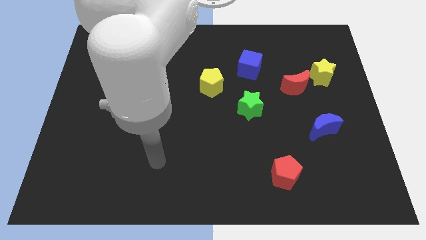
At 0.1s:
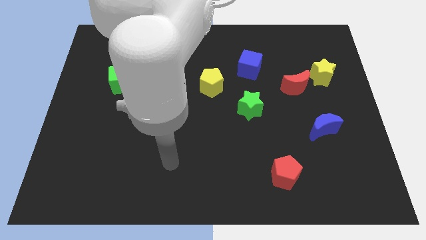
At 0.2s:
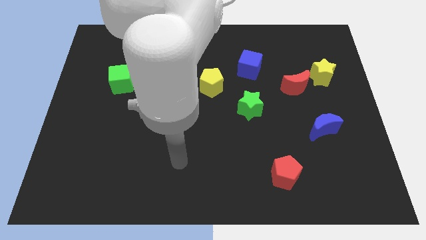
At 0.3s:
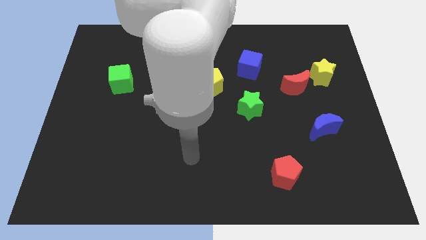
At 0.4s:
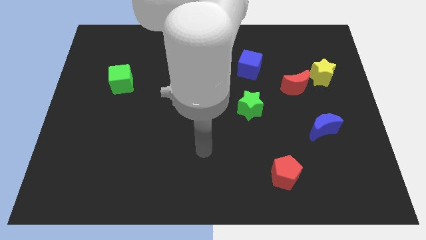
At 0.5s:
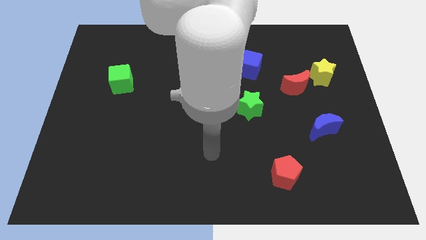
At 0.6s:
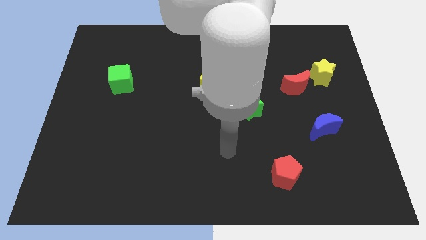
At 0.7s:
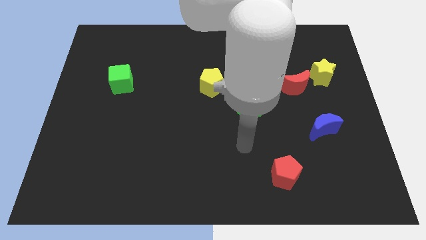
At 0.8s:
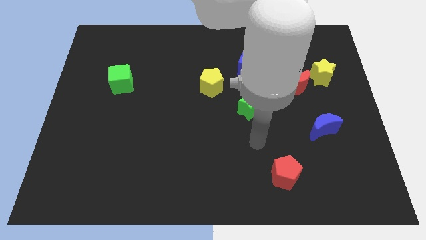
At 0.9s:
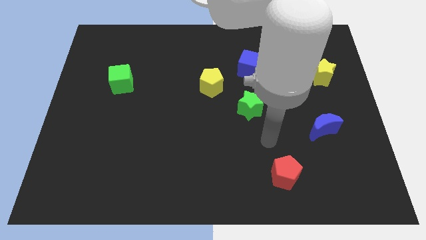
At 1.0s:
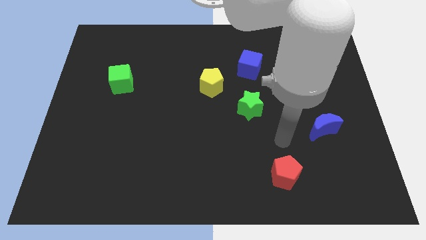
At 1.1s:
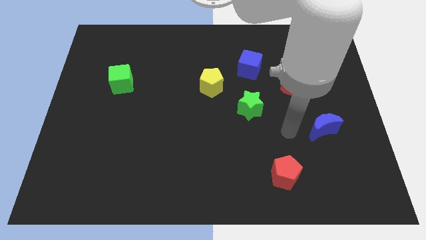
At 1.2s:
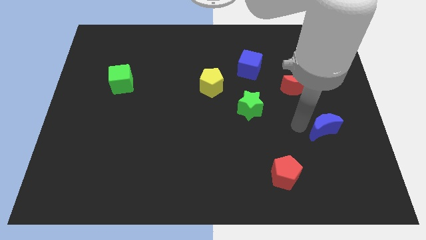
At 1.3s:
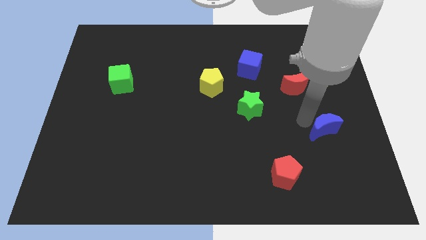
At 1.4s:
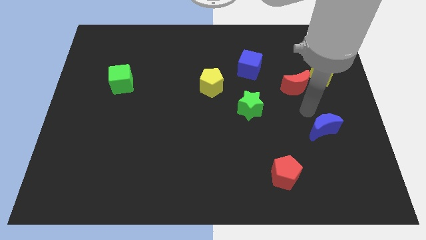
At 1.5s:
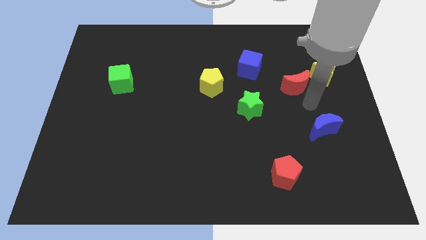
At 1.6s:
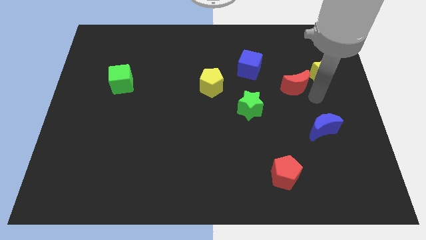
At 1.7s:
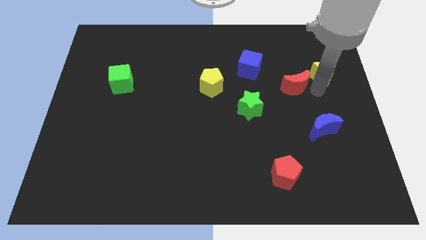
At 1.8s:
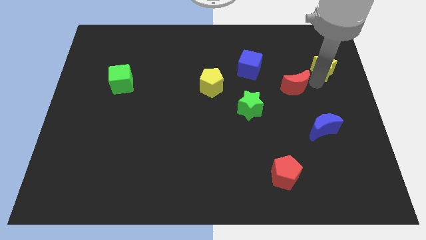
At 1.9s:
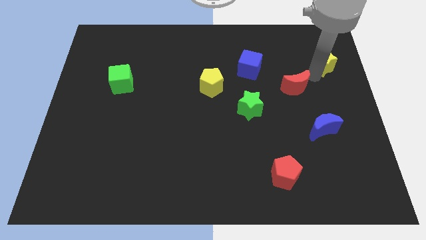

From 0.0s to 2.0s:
pull the red moon apart from the yellow star

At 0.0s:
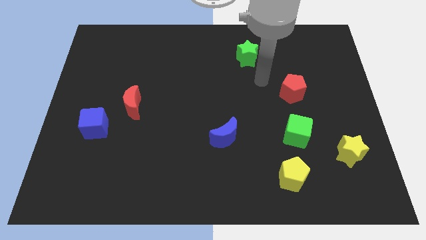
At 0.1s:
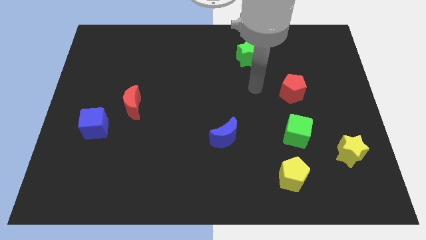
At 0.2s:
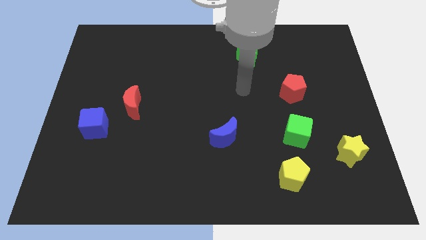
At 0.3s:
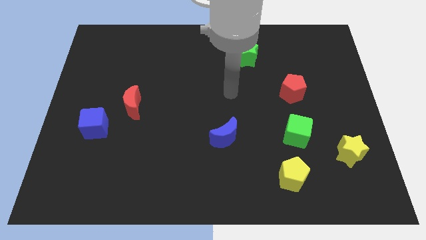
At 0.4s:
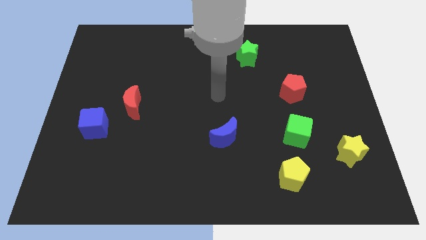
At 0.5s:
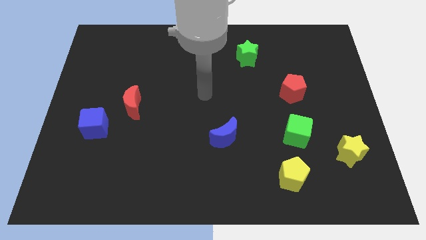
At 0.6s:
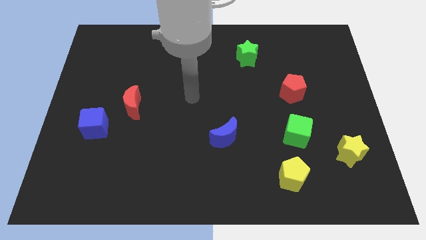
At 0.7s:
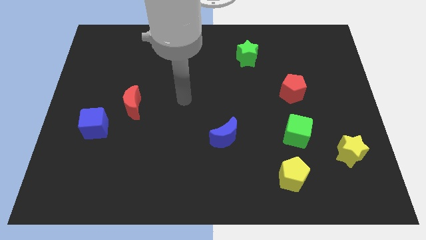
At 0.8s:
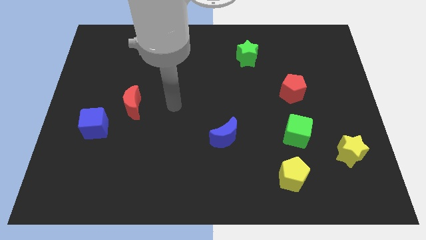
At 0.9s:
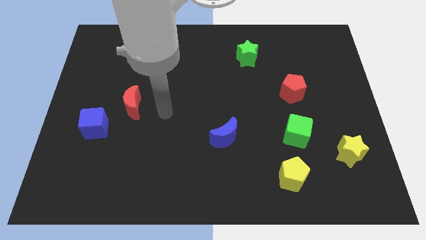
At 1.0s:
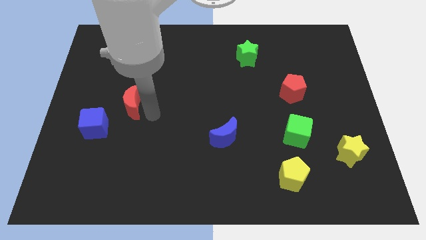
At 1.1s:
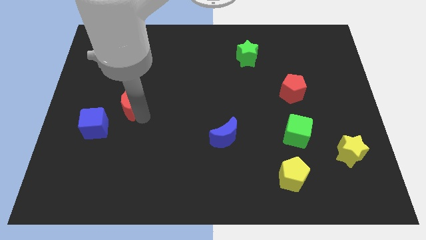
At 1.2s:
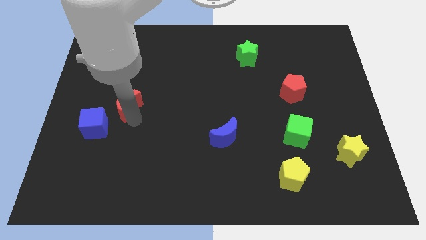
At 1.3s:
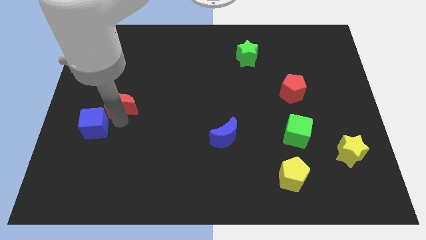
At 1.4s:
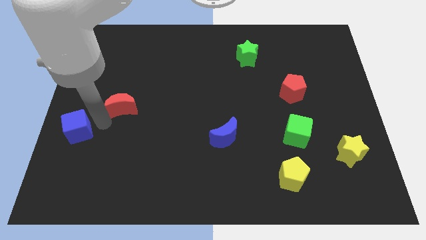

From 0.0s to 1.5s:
move the red moon away from the blue cube

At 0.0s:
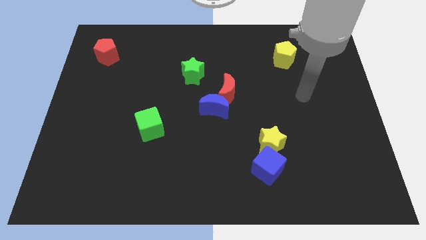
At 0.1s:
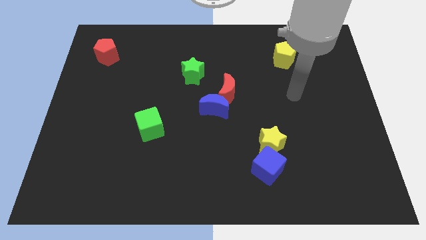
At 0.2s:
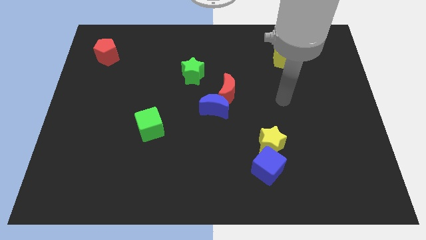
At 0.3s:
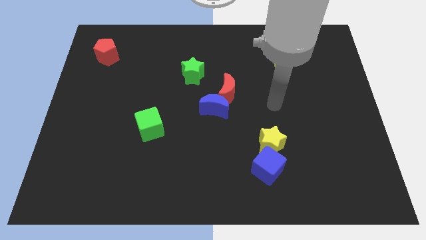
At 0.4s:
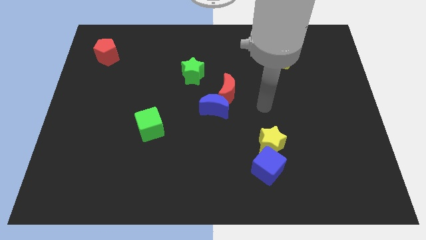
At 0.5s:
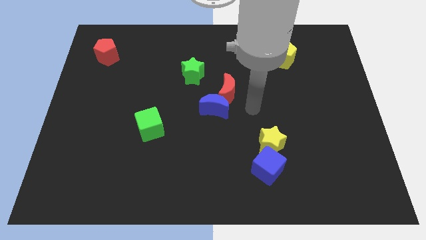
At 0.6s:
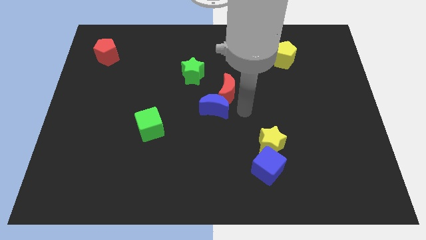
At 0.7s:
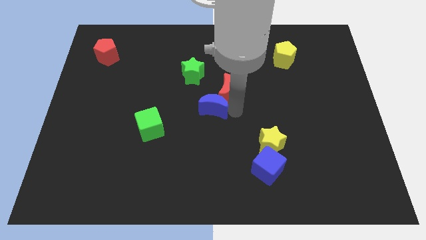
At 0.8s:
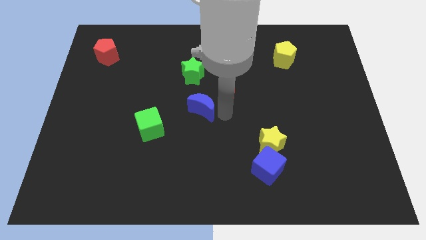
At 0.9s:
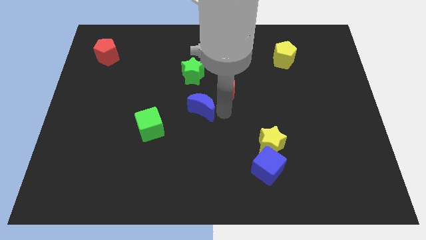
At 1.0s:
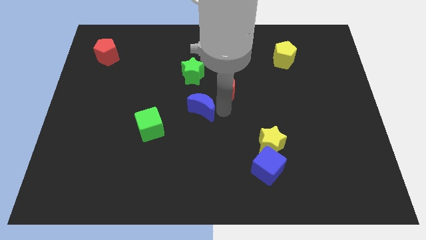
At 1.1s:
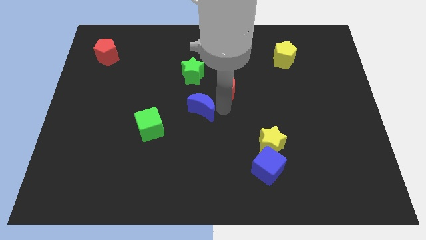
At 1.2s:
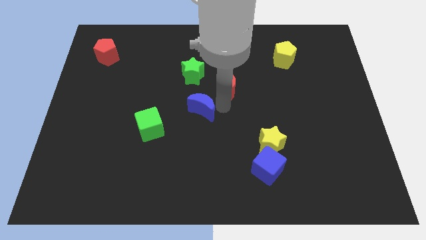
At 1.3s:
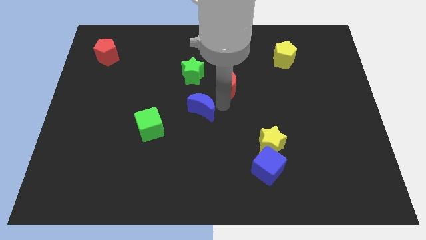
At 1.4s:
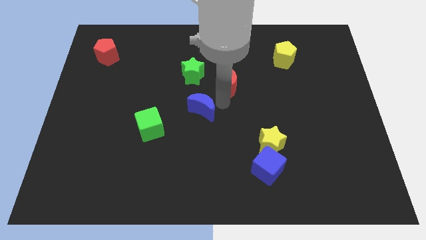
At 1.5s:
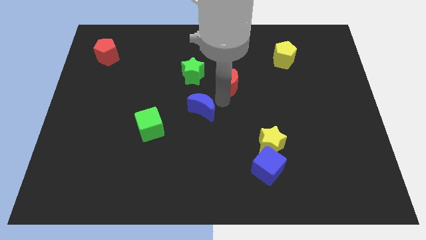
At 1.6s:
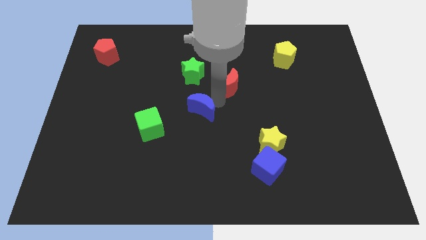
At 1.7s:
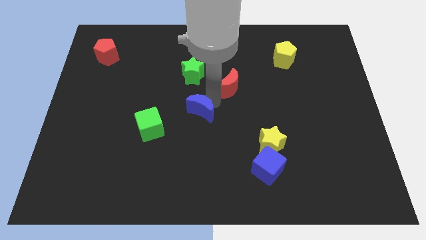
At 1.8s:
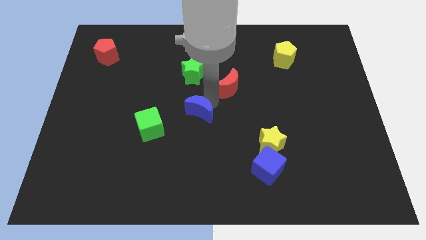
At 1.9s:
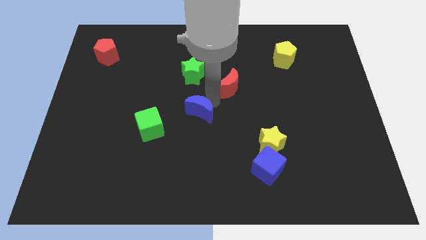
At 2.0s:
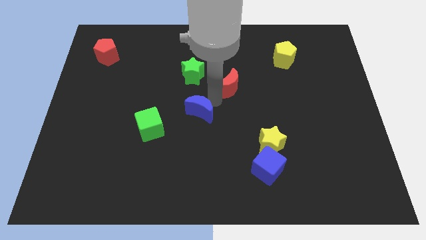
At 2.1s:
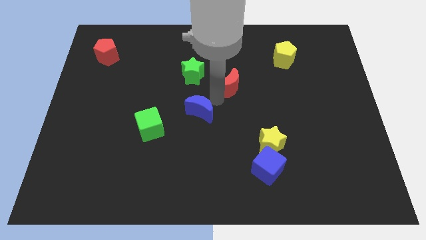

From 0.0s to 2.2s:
pull the red moon apart from the blue moon

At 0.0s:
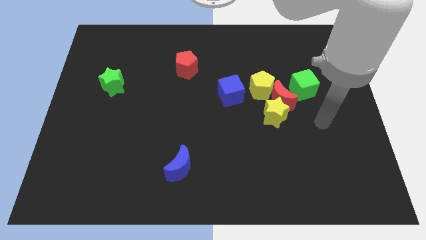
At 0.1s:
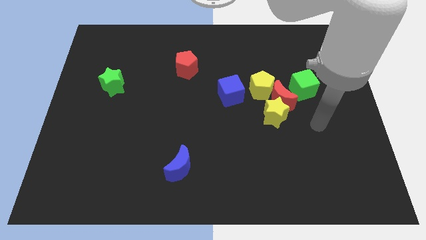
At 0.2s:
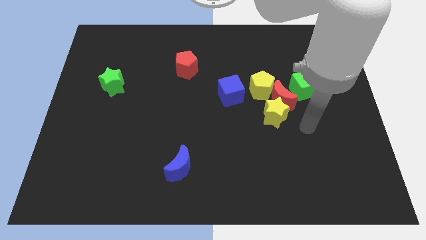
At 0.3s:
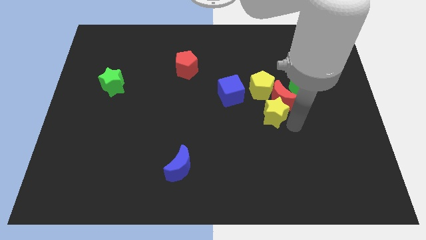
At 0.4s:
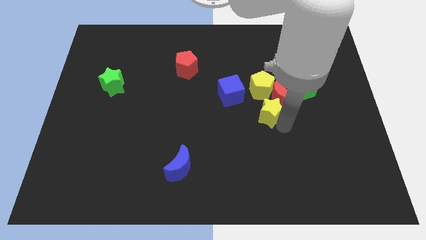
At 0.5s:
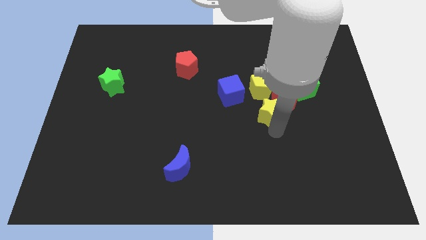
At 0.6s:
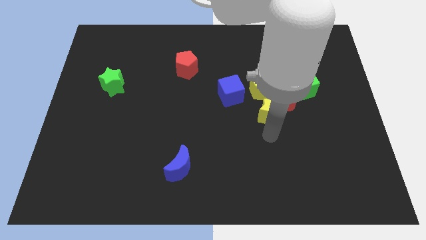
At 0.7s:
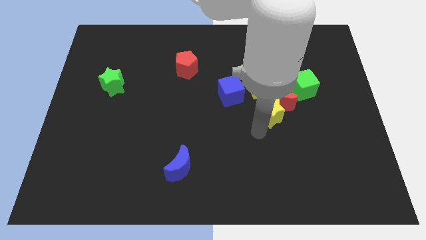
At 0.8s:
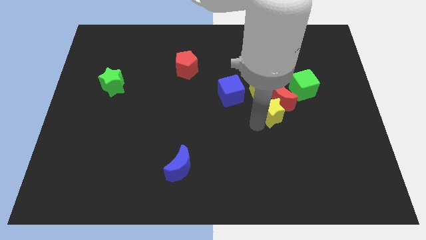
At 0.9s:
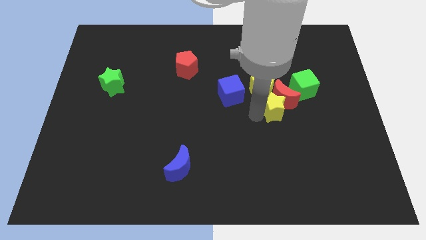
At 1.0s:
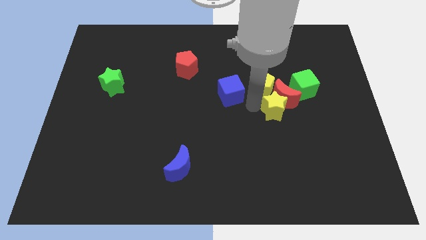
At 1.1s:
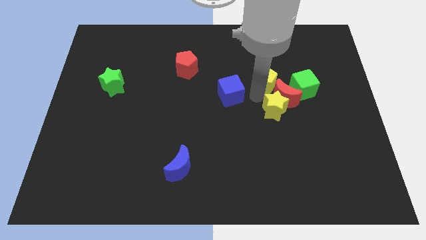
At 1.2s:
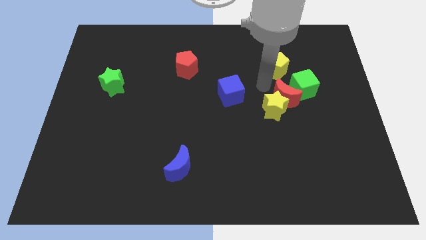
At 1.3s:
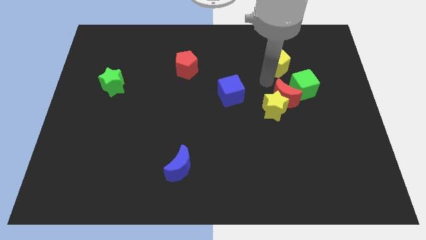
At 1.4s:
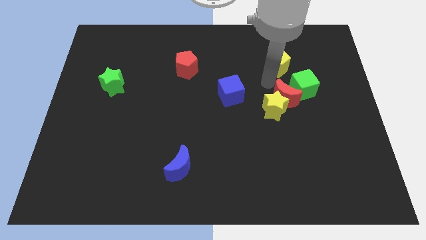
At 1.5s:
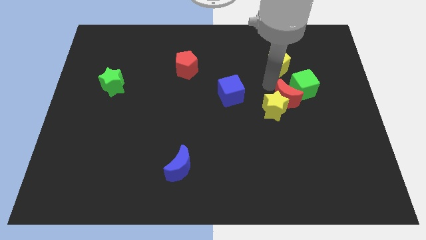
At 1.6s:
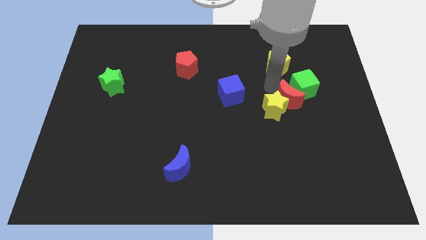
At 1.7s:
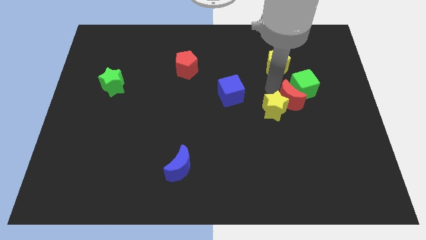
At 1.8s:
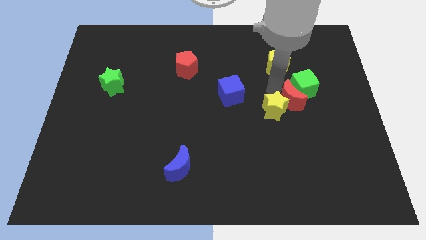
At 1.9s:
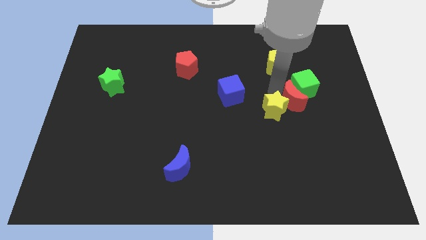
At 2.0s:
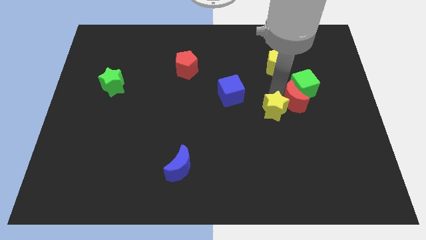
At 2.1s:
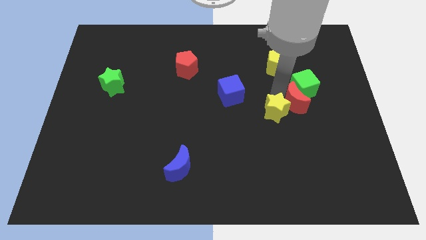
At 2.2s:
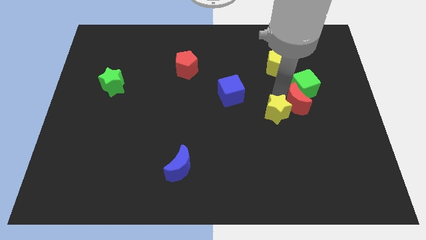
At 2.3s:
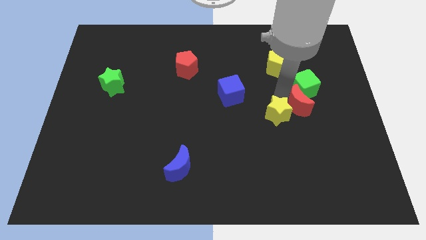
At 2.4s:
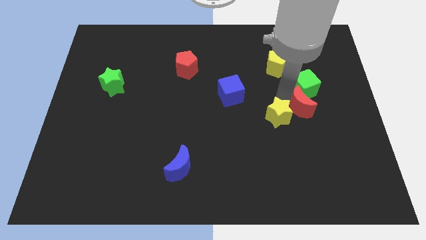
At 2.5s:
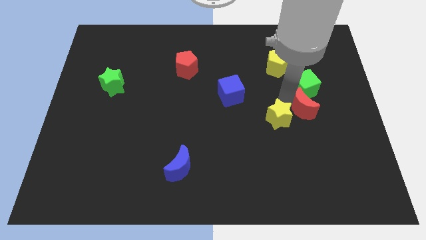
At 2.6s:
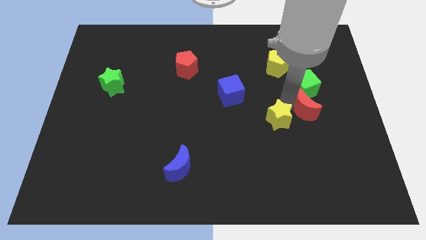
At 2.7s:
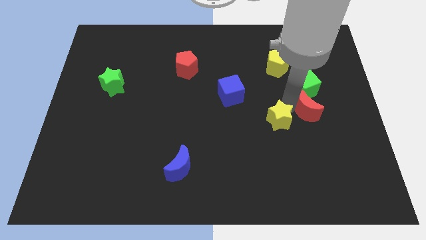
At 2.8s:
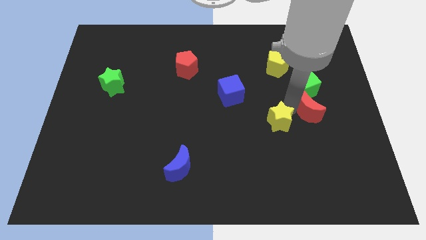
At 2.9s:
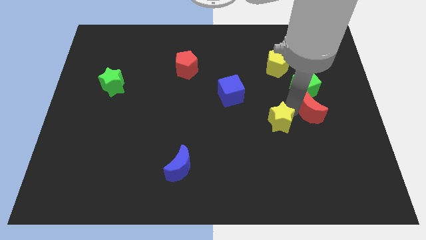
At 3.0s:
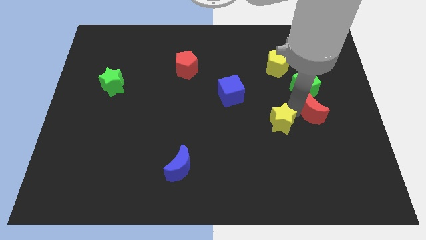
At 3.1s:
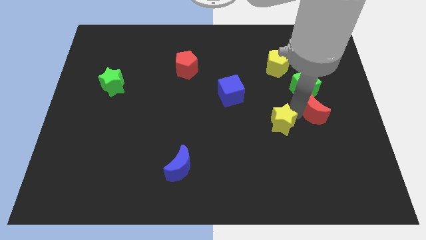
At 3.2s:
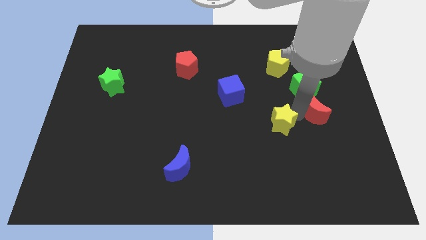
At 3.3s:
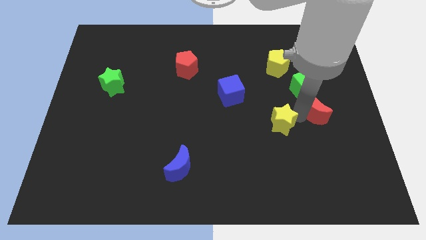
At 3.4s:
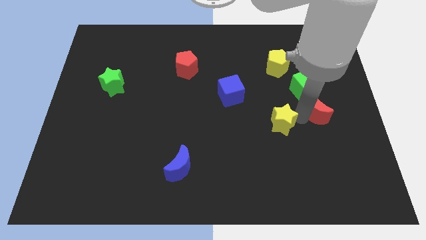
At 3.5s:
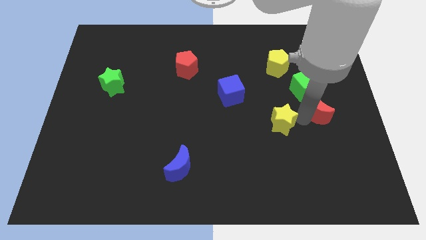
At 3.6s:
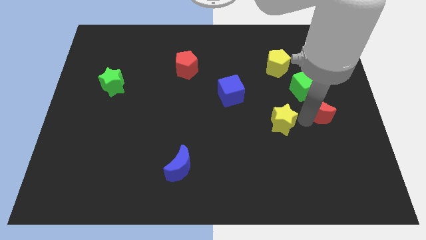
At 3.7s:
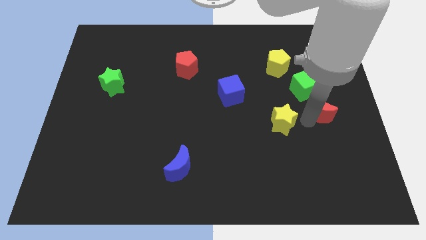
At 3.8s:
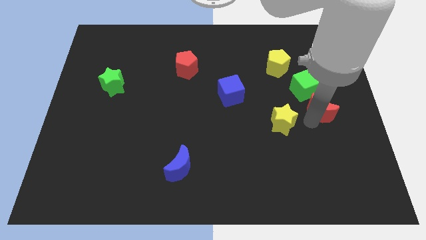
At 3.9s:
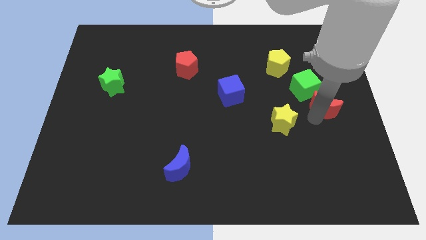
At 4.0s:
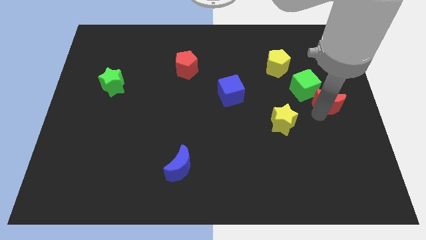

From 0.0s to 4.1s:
separate the red moon from the yellow star, yellow pentagon, and green cube
